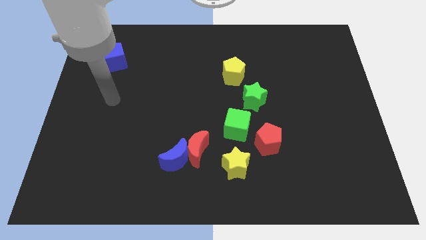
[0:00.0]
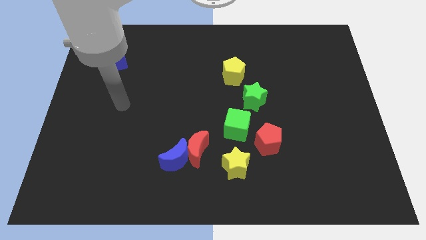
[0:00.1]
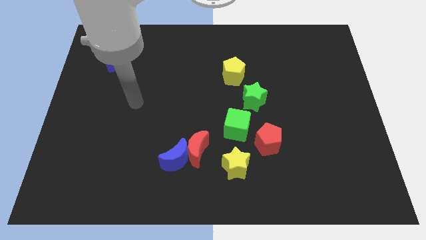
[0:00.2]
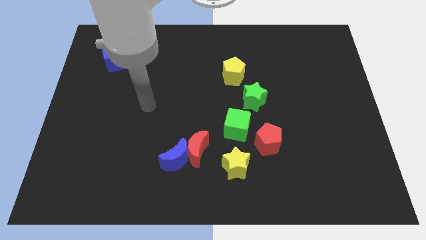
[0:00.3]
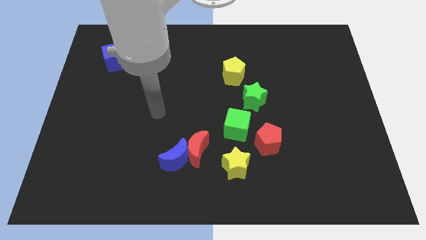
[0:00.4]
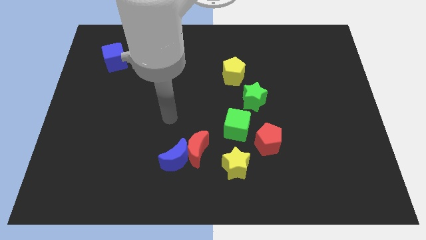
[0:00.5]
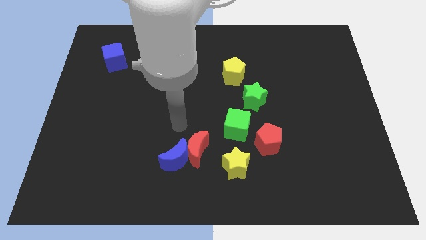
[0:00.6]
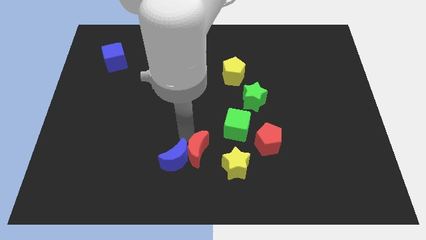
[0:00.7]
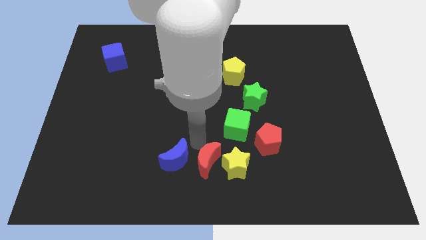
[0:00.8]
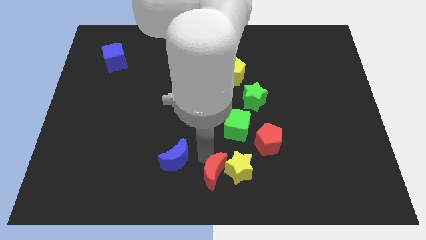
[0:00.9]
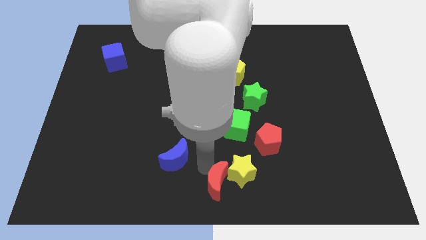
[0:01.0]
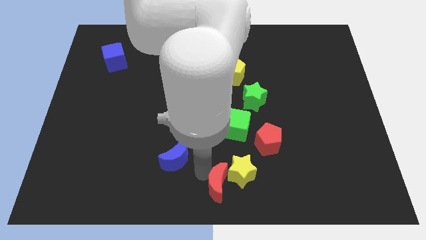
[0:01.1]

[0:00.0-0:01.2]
pull the blue moon apart from the red moon

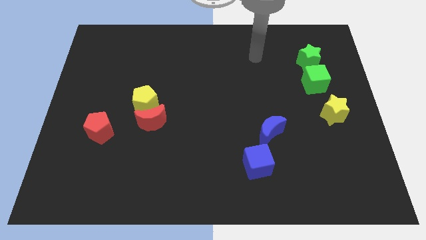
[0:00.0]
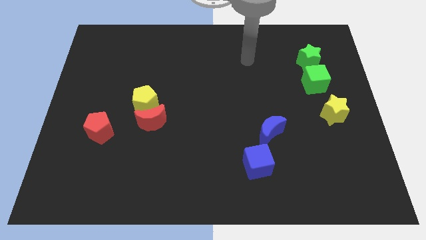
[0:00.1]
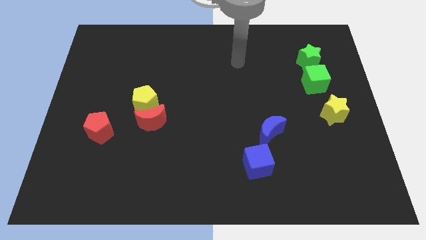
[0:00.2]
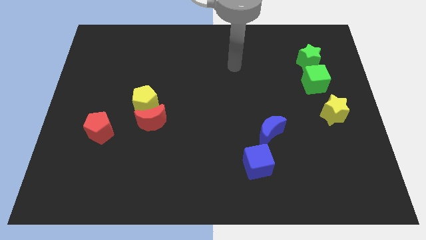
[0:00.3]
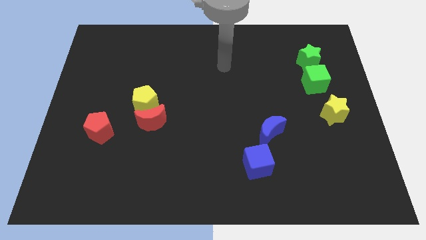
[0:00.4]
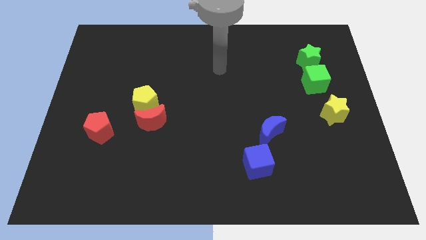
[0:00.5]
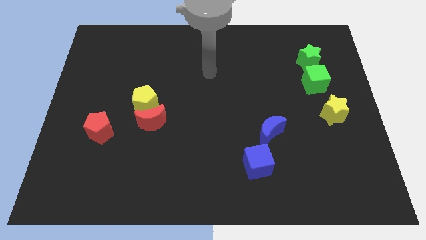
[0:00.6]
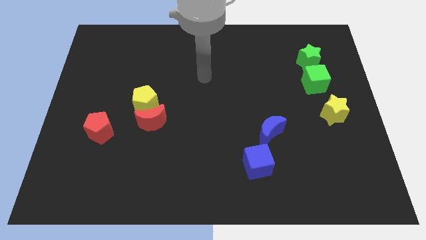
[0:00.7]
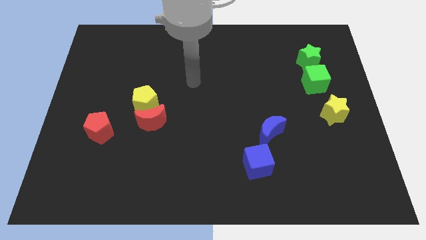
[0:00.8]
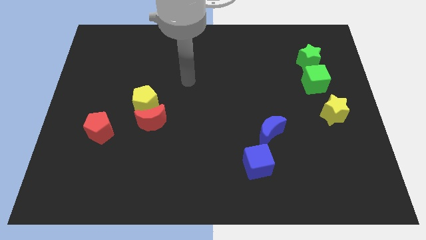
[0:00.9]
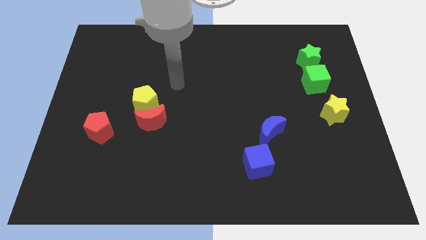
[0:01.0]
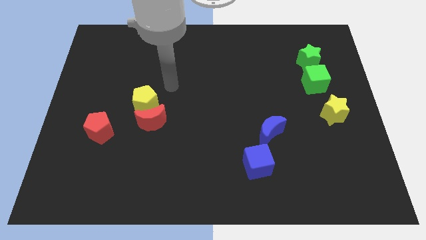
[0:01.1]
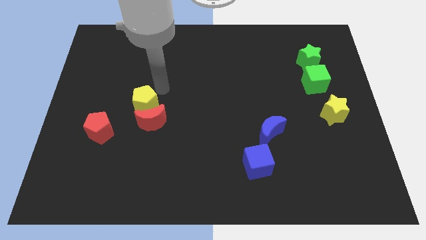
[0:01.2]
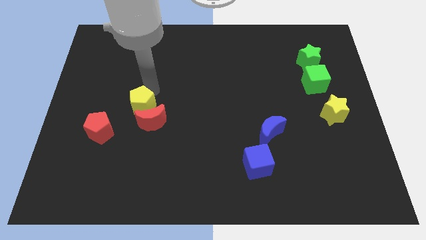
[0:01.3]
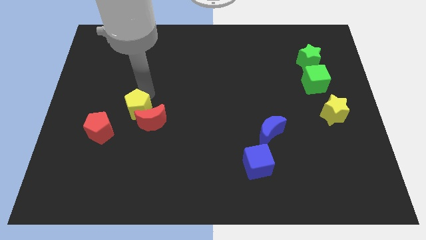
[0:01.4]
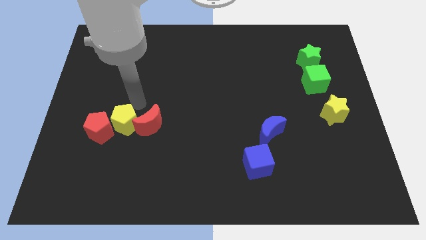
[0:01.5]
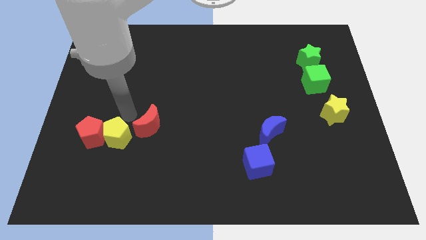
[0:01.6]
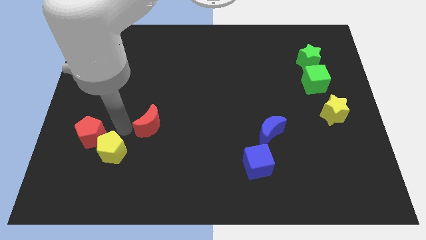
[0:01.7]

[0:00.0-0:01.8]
pull the red moon apart from the yellow pentagon

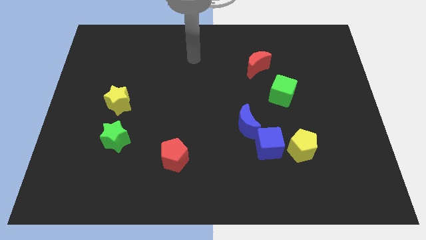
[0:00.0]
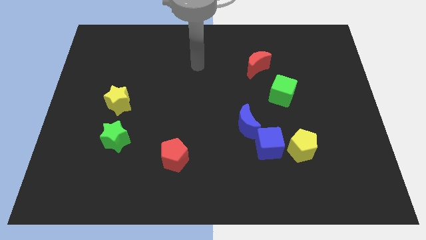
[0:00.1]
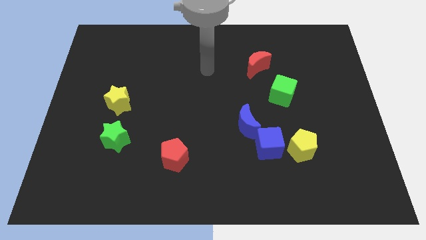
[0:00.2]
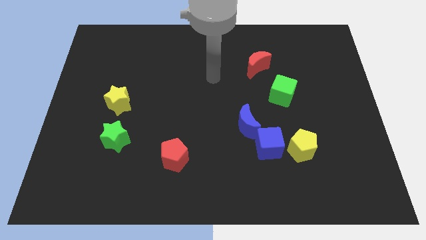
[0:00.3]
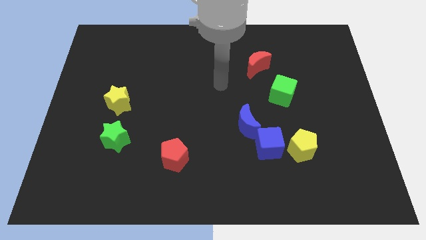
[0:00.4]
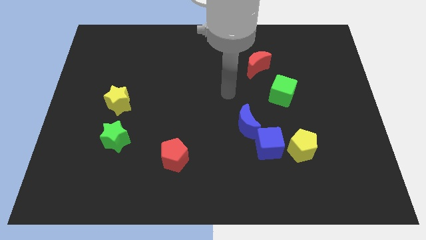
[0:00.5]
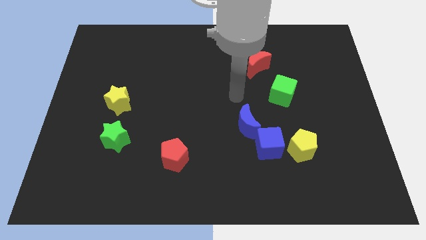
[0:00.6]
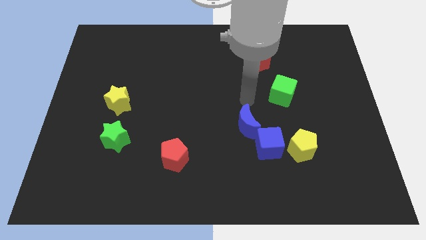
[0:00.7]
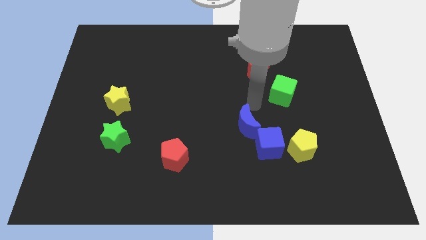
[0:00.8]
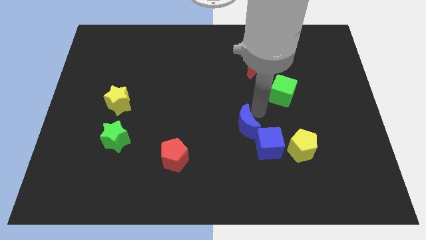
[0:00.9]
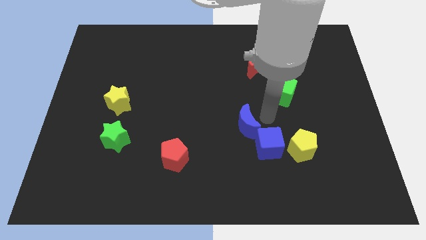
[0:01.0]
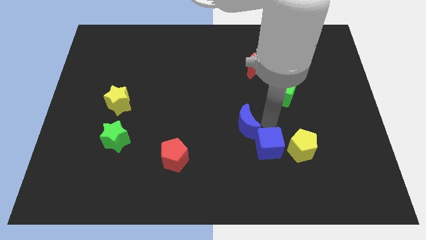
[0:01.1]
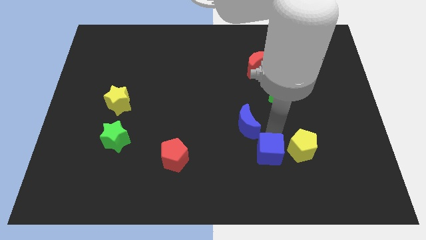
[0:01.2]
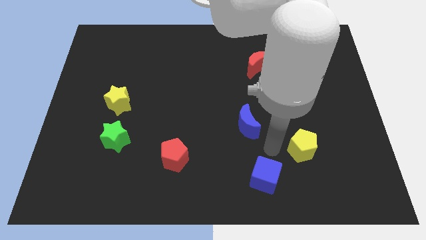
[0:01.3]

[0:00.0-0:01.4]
pull the yellow pentagon apart from the blue cube

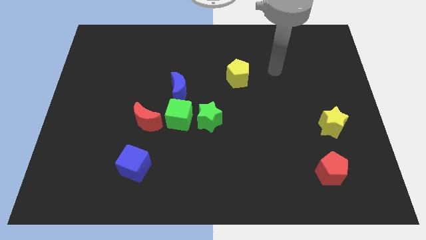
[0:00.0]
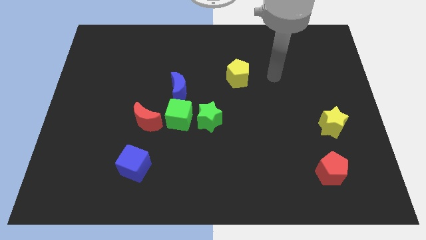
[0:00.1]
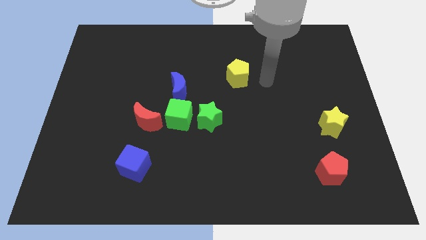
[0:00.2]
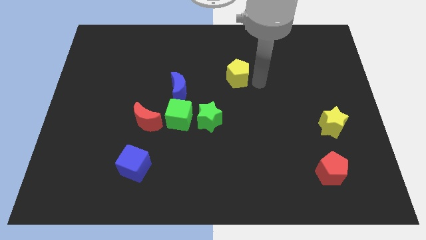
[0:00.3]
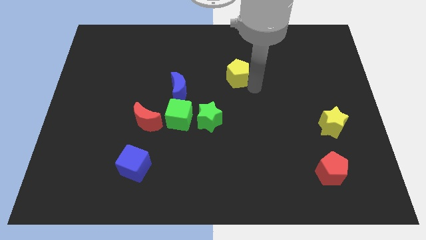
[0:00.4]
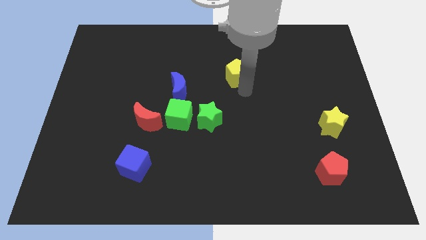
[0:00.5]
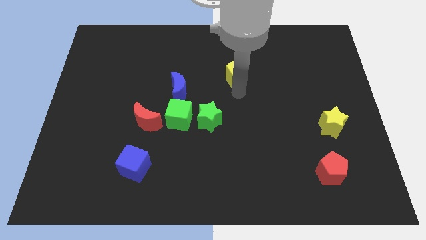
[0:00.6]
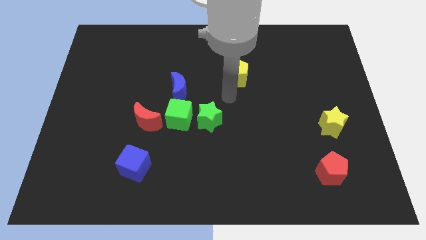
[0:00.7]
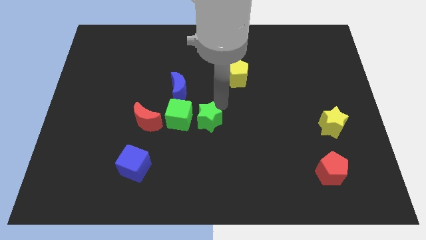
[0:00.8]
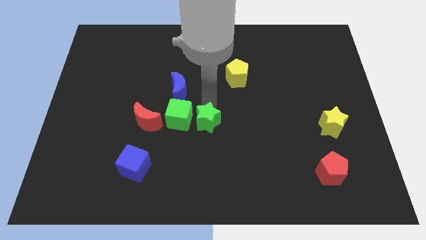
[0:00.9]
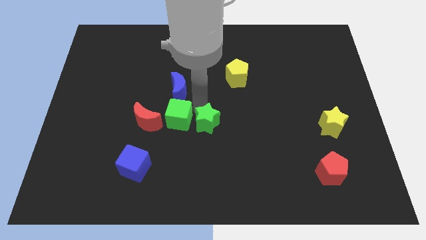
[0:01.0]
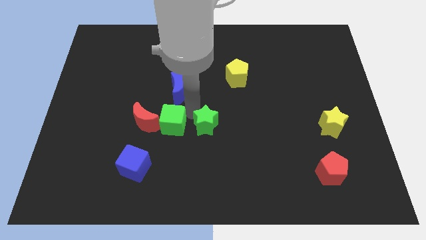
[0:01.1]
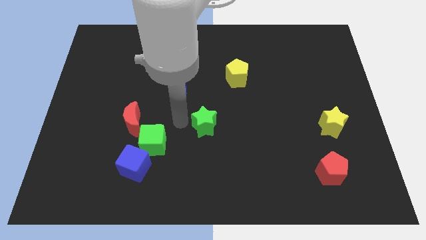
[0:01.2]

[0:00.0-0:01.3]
move the green star away from the green cube

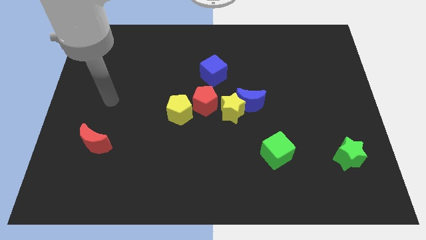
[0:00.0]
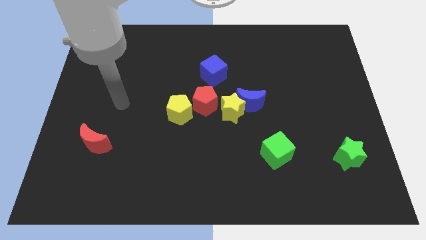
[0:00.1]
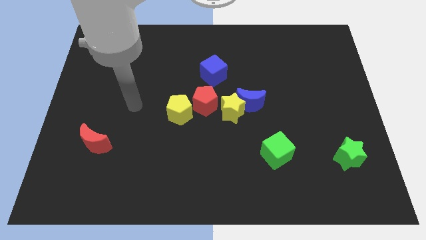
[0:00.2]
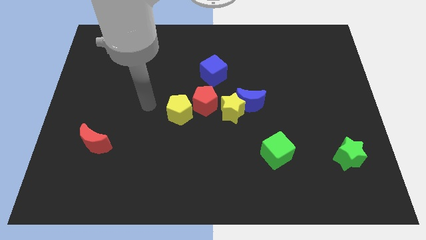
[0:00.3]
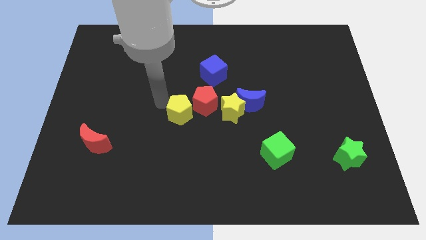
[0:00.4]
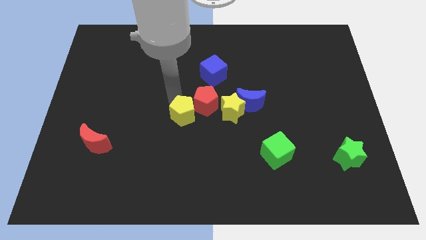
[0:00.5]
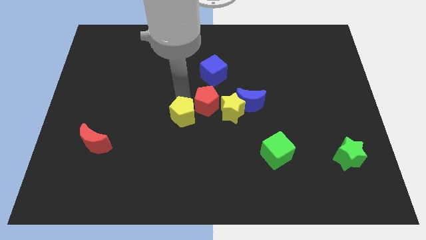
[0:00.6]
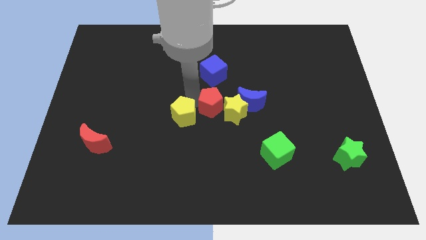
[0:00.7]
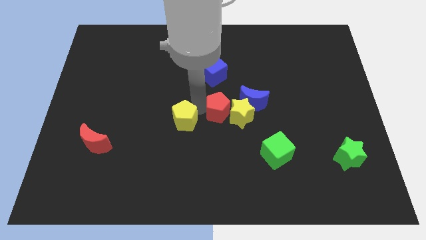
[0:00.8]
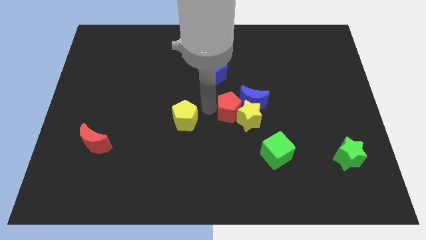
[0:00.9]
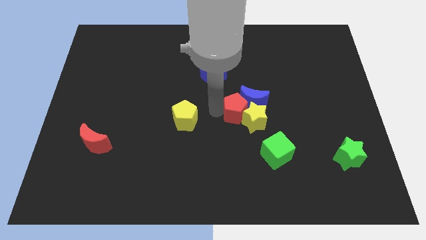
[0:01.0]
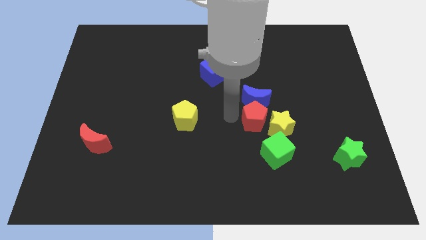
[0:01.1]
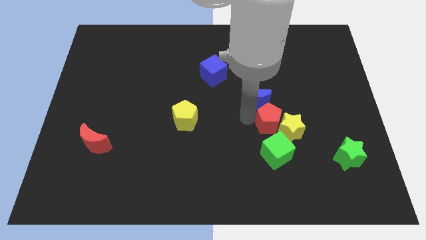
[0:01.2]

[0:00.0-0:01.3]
pull the blue moon apart from the yellow star

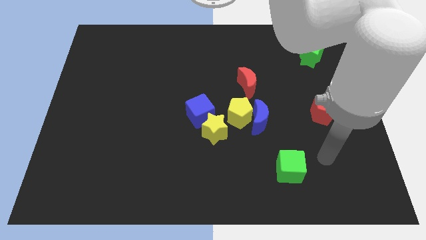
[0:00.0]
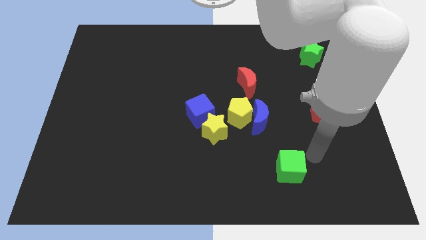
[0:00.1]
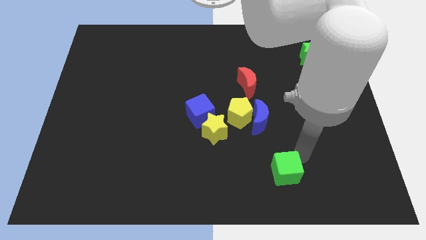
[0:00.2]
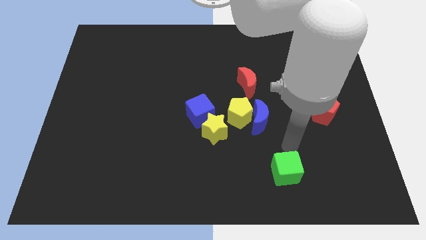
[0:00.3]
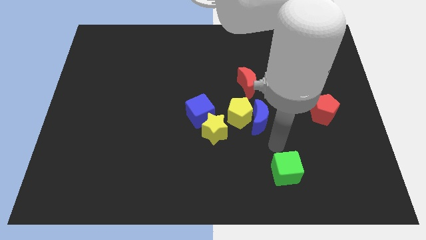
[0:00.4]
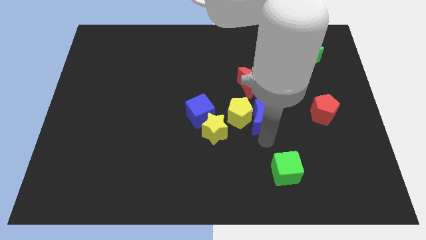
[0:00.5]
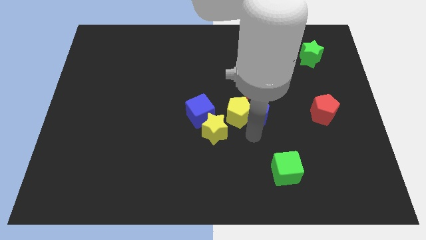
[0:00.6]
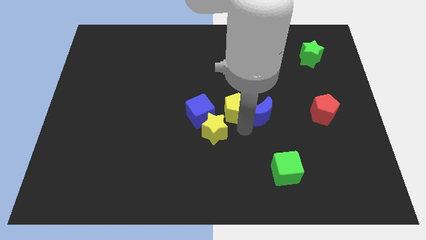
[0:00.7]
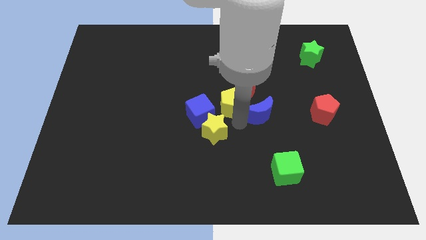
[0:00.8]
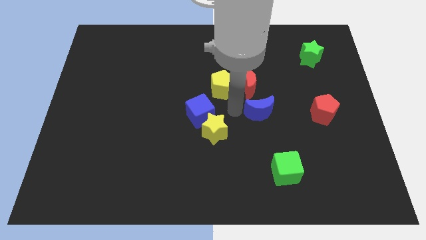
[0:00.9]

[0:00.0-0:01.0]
separate the blue moon from the yellow pentagon

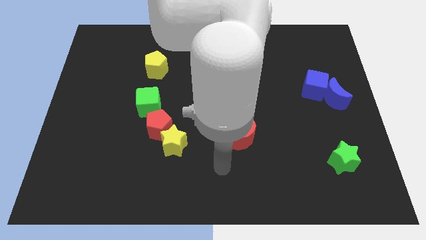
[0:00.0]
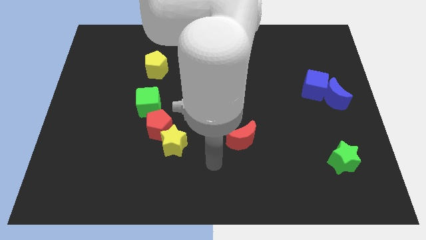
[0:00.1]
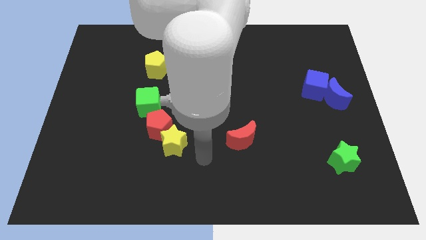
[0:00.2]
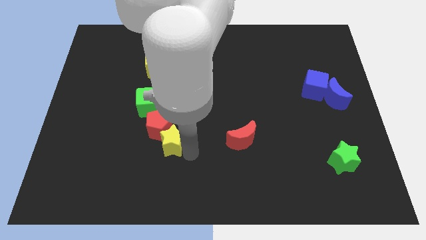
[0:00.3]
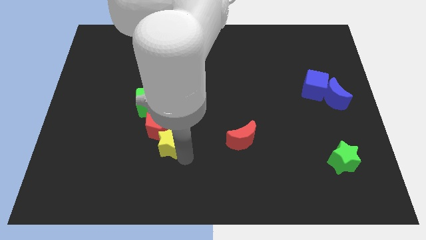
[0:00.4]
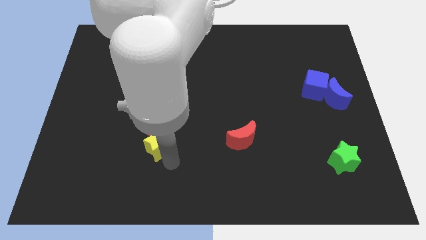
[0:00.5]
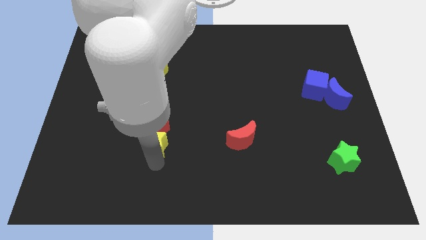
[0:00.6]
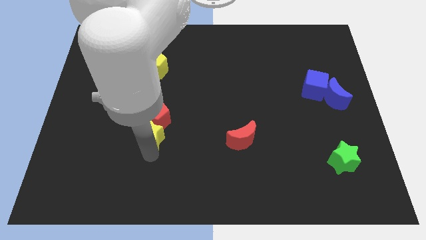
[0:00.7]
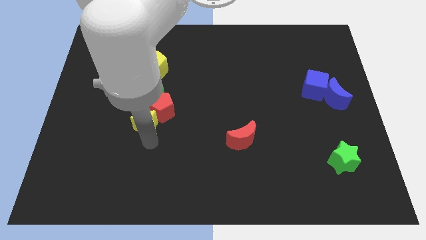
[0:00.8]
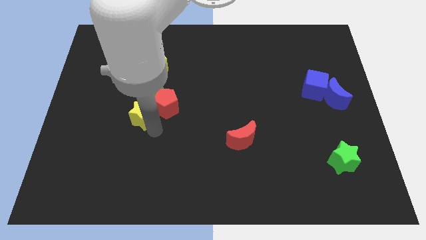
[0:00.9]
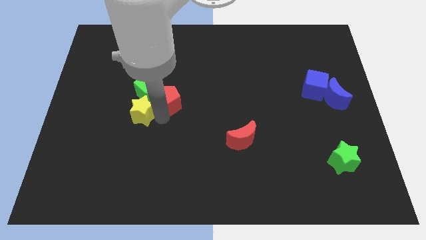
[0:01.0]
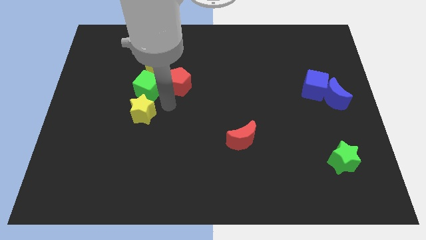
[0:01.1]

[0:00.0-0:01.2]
move the yellow star away from the red pentagon
